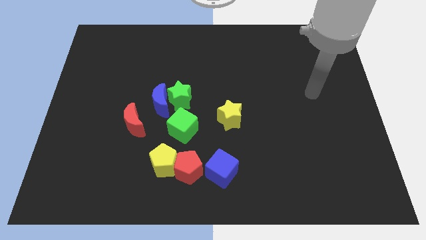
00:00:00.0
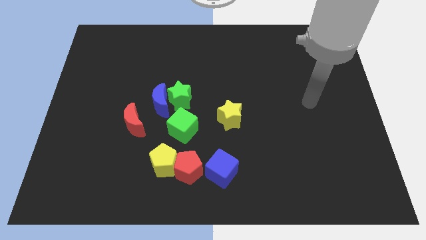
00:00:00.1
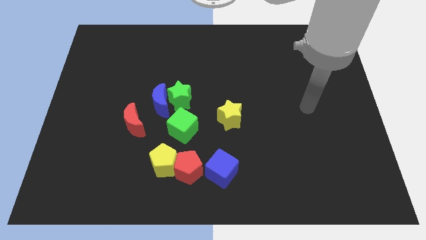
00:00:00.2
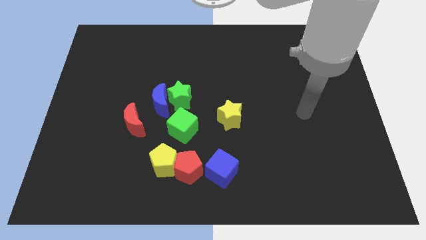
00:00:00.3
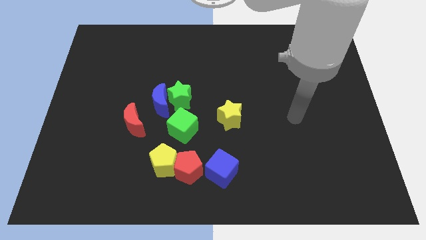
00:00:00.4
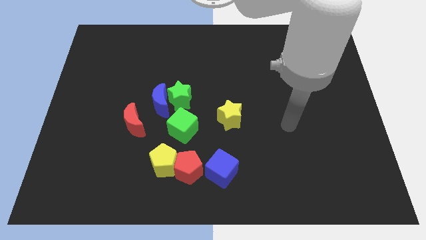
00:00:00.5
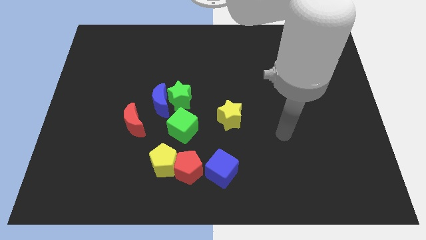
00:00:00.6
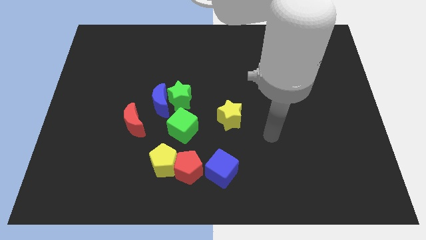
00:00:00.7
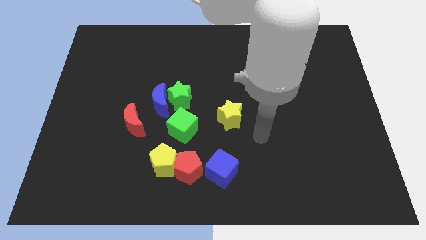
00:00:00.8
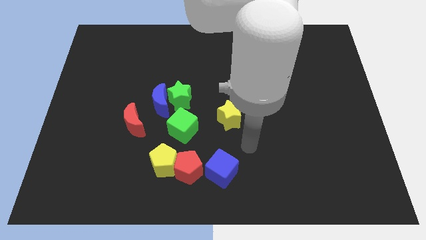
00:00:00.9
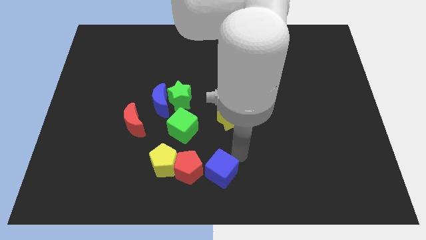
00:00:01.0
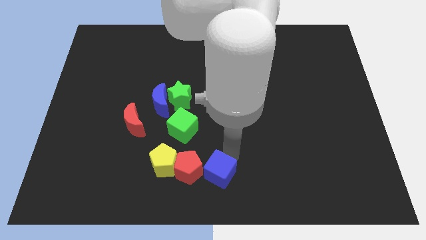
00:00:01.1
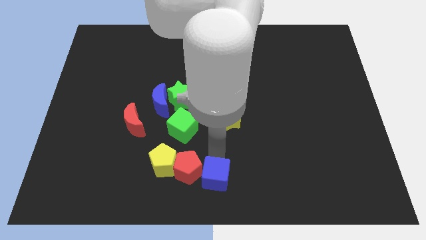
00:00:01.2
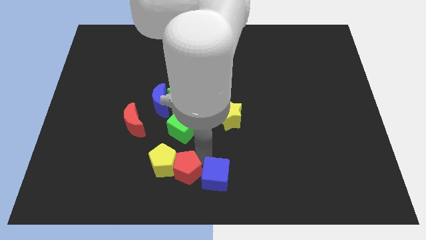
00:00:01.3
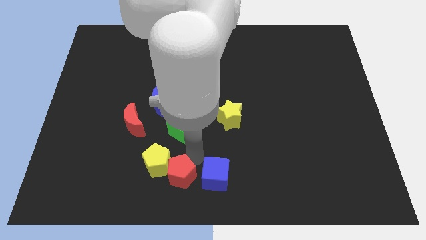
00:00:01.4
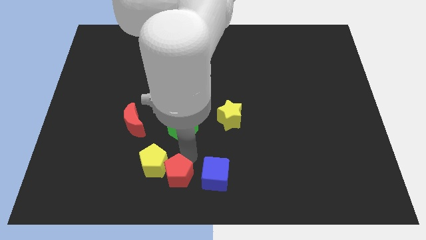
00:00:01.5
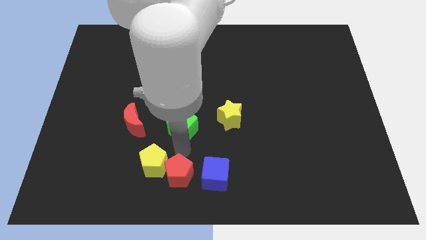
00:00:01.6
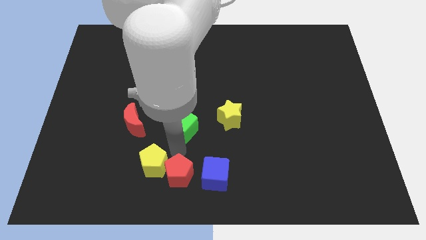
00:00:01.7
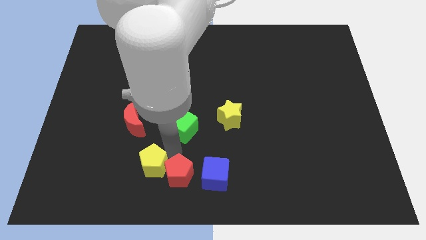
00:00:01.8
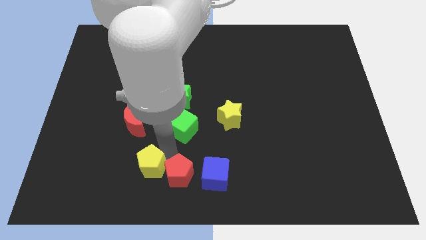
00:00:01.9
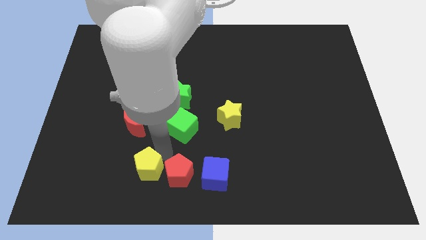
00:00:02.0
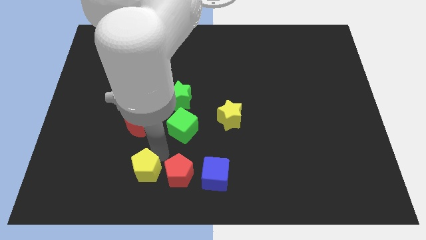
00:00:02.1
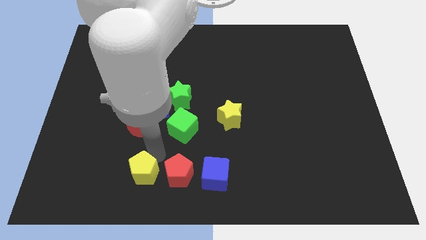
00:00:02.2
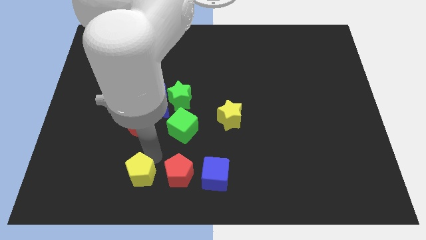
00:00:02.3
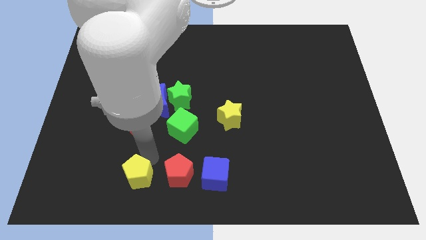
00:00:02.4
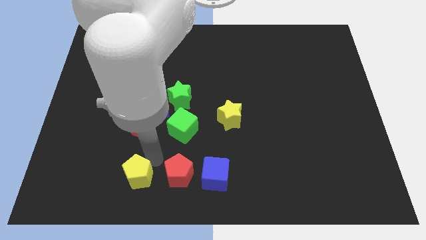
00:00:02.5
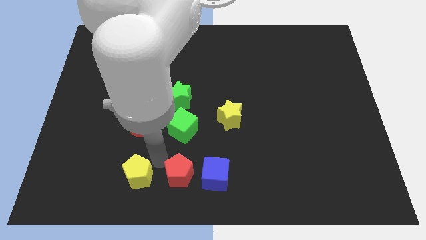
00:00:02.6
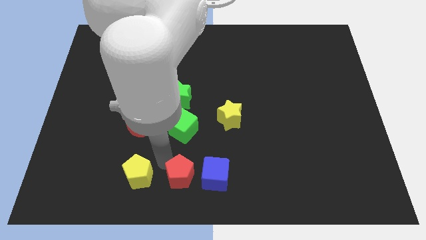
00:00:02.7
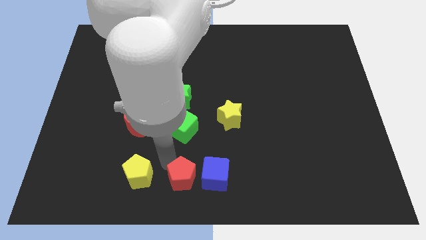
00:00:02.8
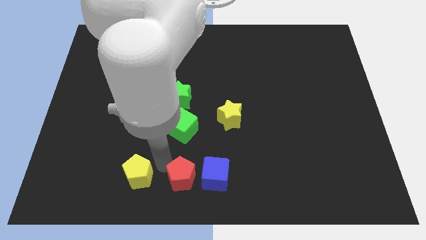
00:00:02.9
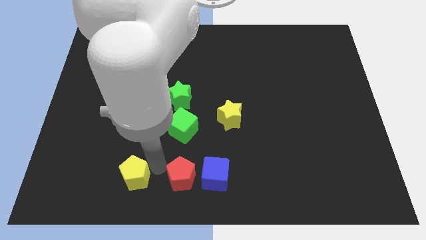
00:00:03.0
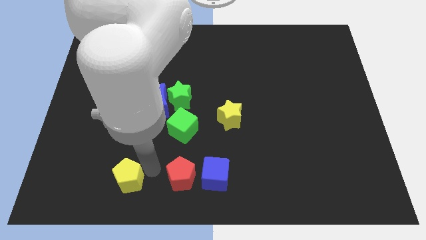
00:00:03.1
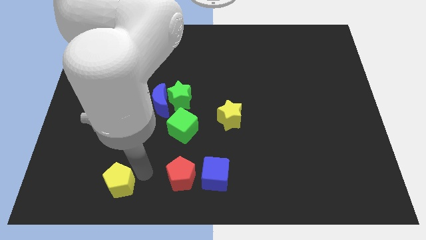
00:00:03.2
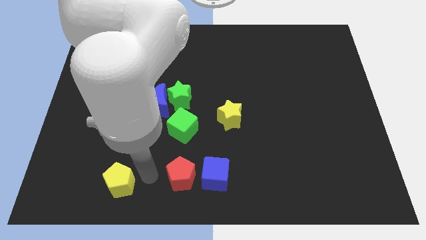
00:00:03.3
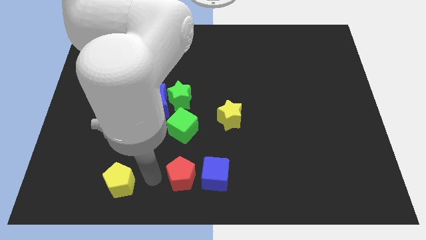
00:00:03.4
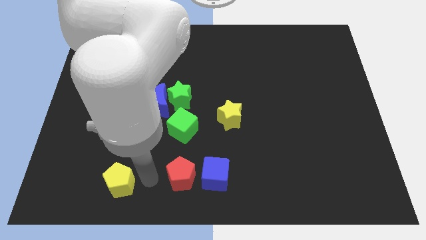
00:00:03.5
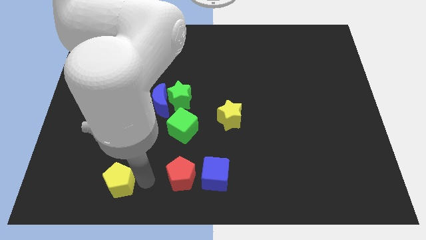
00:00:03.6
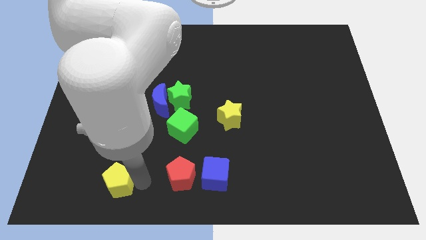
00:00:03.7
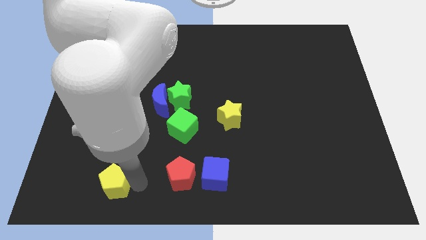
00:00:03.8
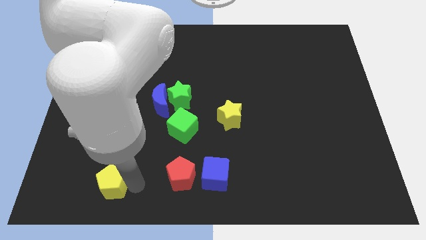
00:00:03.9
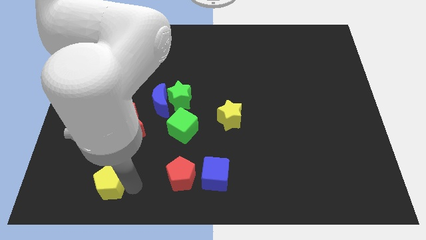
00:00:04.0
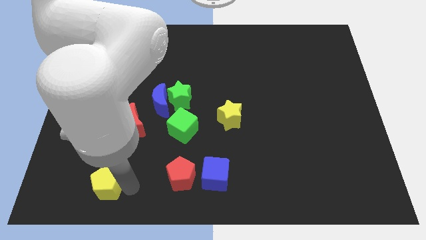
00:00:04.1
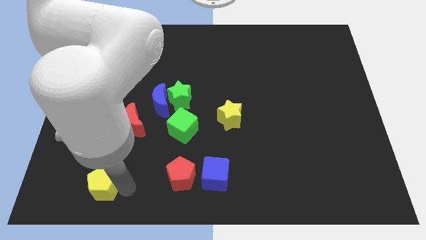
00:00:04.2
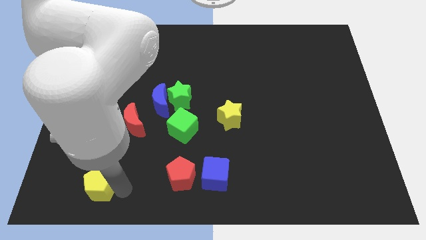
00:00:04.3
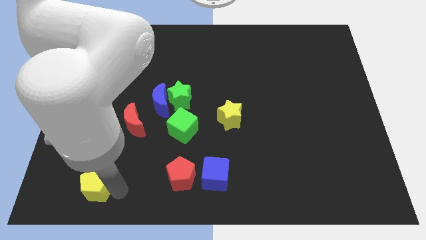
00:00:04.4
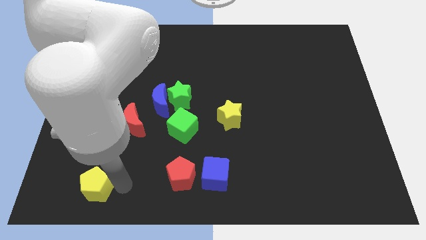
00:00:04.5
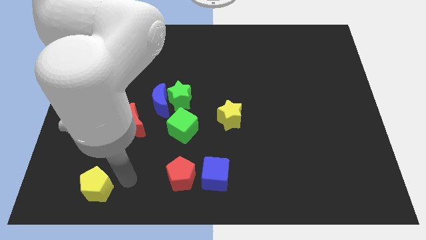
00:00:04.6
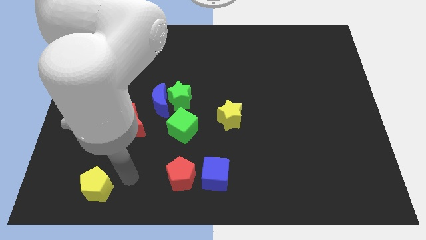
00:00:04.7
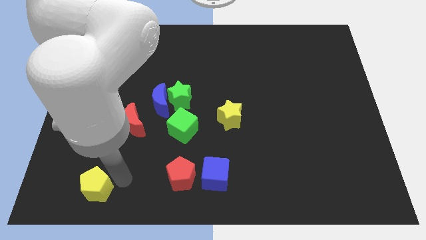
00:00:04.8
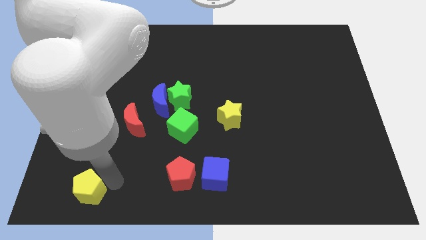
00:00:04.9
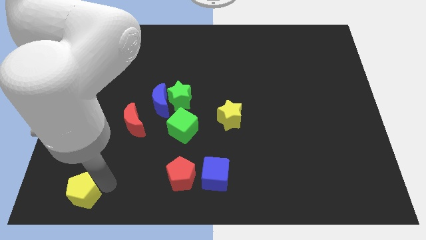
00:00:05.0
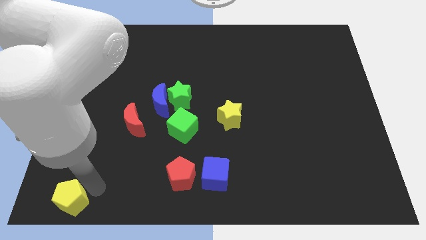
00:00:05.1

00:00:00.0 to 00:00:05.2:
move the yellow pentagon to the bottom left
